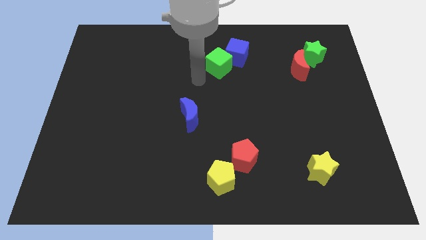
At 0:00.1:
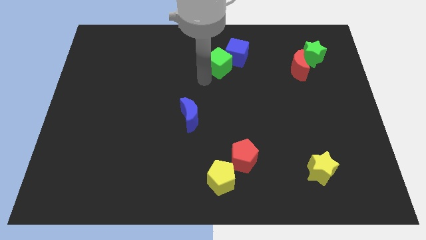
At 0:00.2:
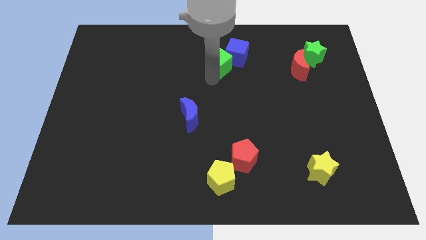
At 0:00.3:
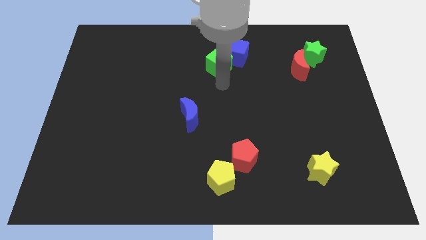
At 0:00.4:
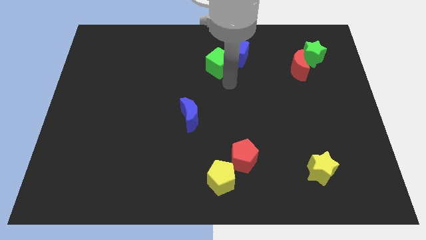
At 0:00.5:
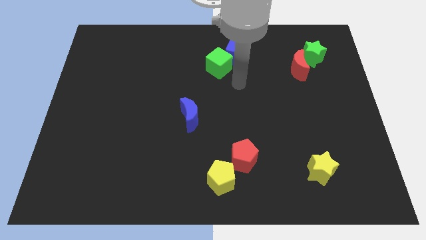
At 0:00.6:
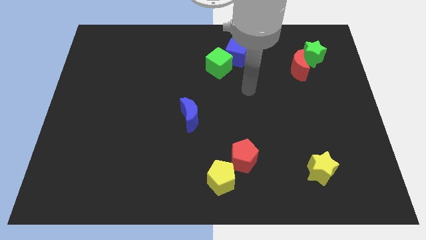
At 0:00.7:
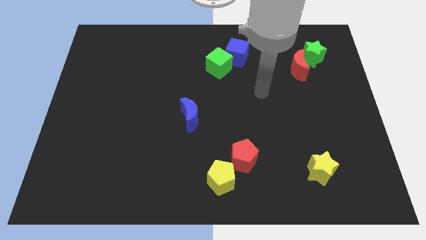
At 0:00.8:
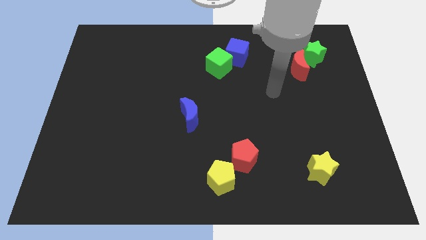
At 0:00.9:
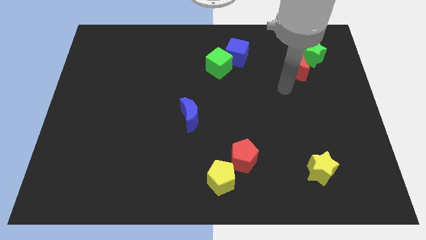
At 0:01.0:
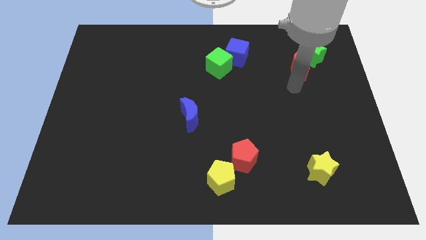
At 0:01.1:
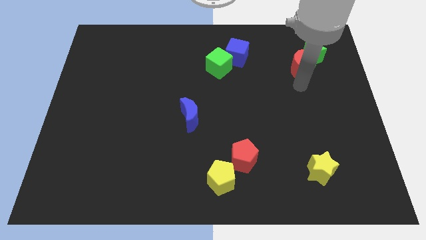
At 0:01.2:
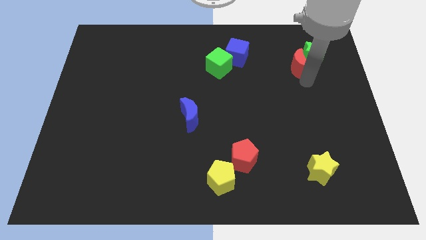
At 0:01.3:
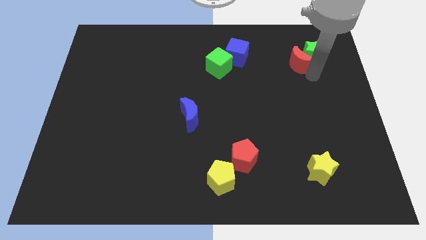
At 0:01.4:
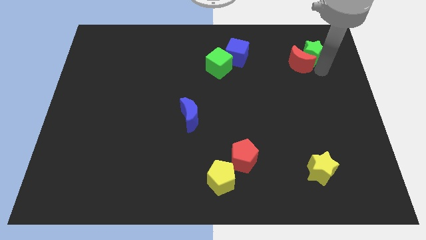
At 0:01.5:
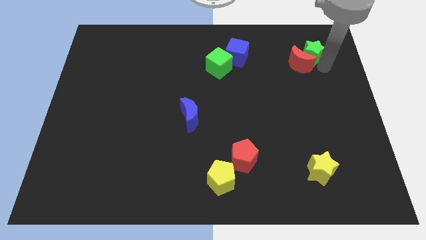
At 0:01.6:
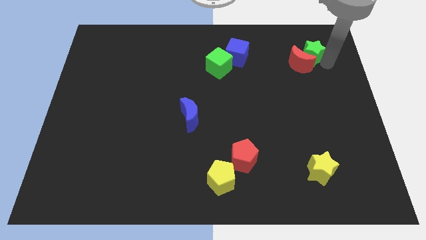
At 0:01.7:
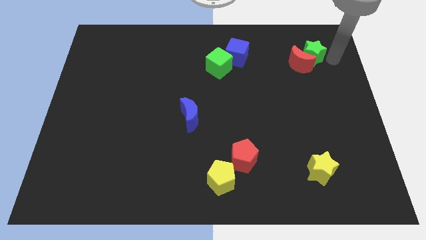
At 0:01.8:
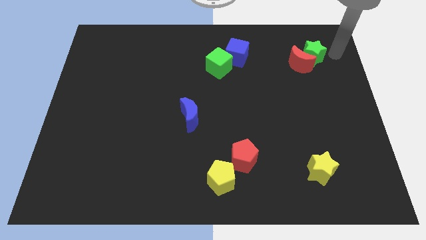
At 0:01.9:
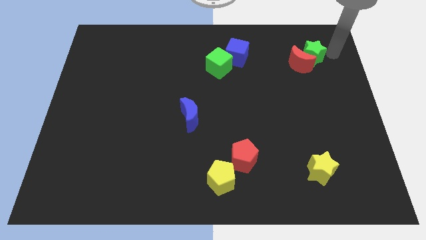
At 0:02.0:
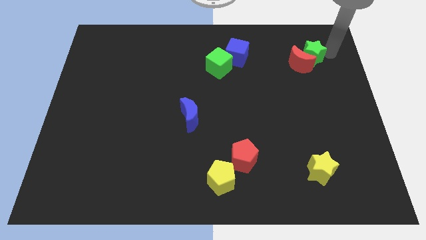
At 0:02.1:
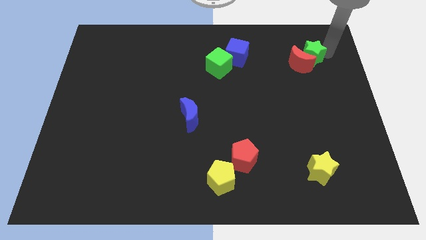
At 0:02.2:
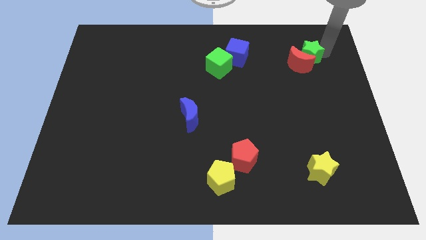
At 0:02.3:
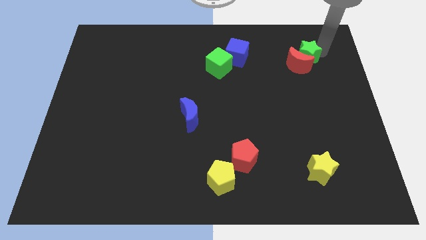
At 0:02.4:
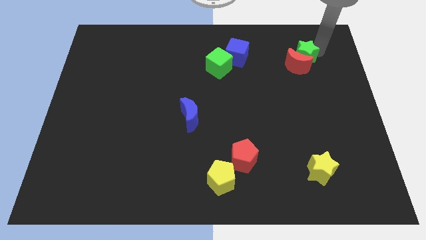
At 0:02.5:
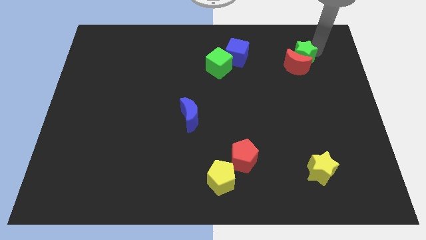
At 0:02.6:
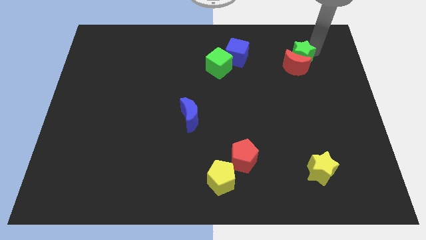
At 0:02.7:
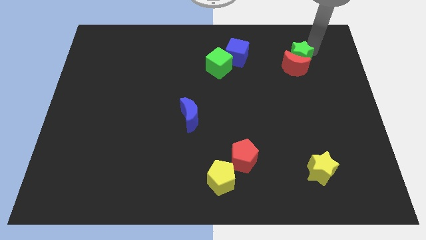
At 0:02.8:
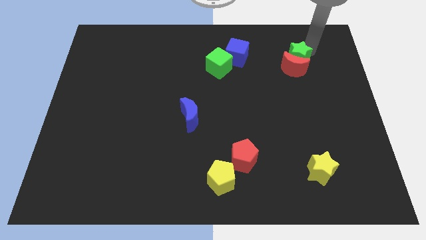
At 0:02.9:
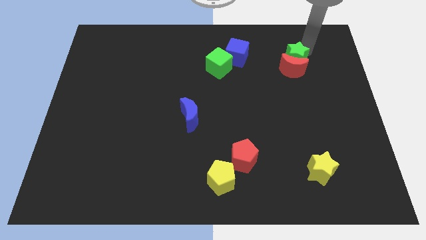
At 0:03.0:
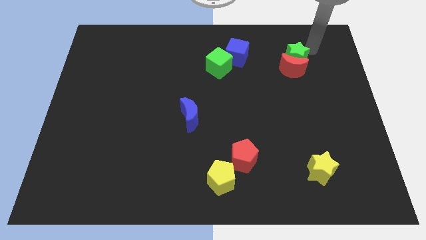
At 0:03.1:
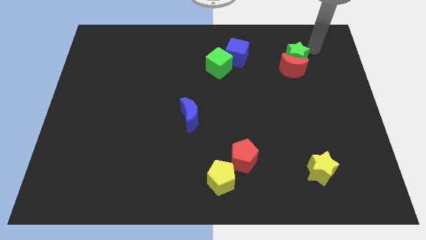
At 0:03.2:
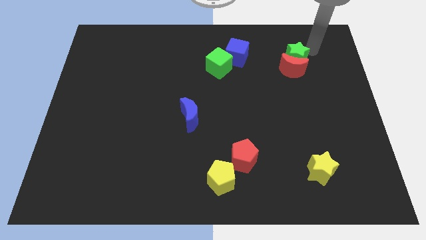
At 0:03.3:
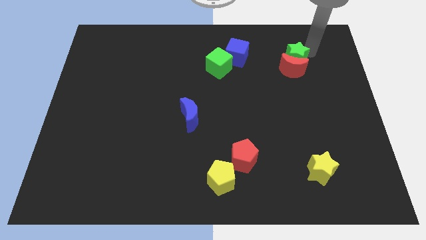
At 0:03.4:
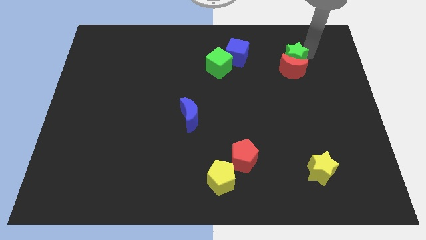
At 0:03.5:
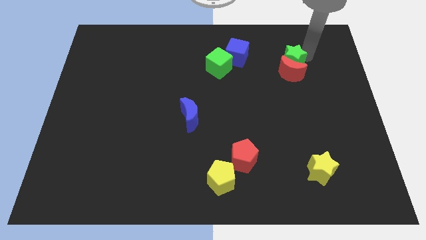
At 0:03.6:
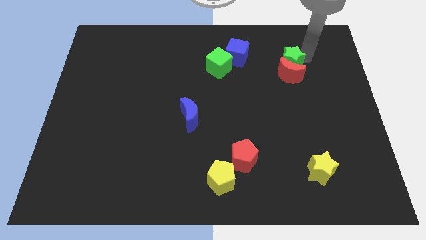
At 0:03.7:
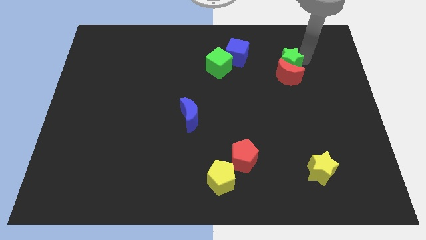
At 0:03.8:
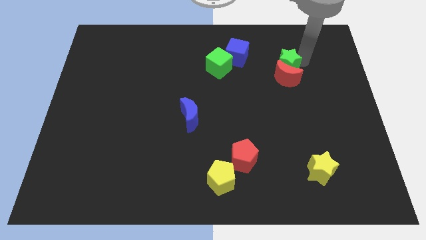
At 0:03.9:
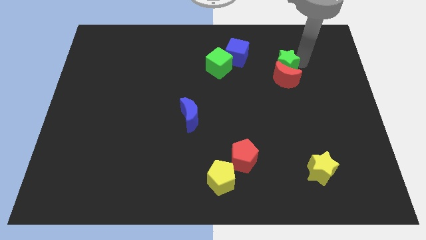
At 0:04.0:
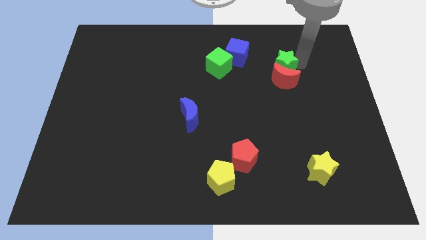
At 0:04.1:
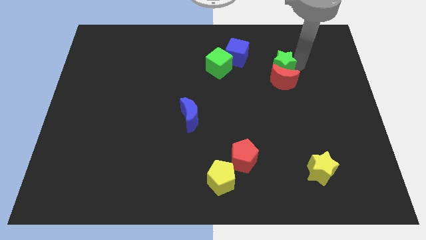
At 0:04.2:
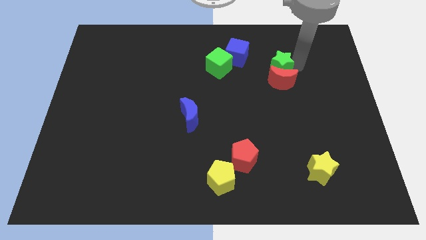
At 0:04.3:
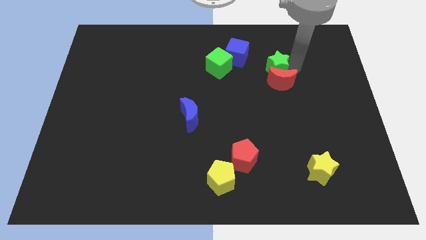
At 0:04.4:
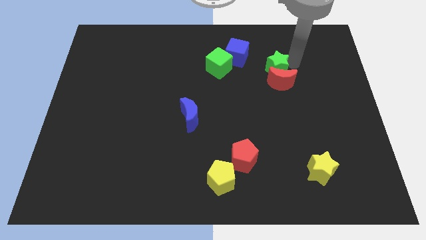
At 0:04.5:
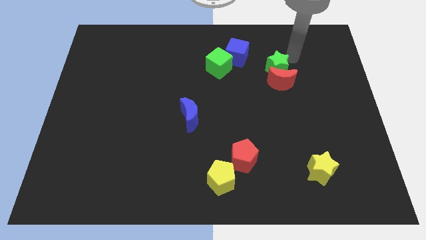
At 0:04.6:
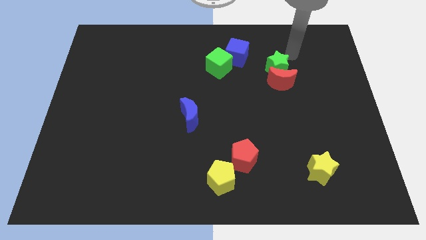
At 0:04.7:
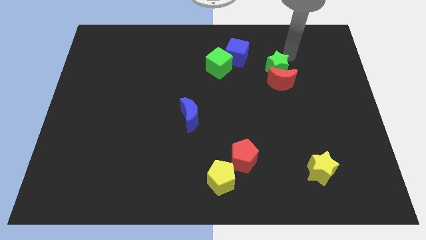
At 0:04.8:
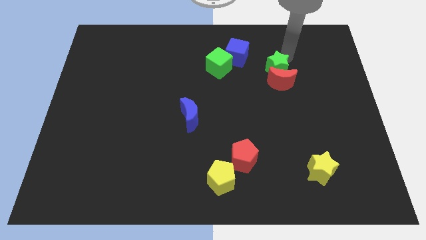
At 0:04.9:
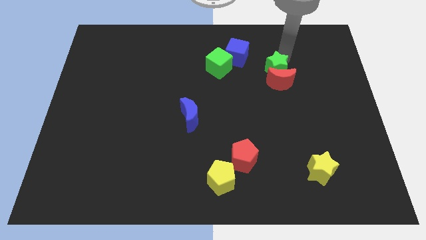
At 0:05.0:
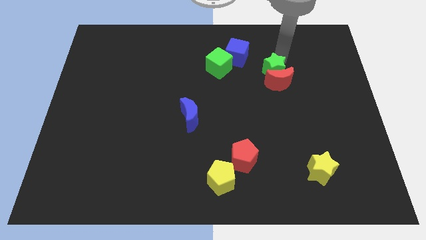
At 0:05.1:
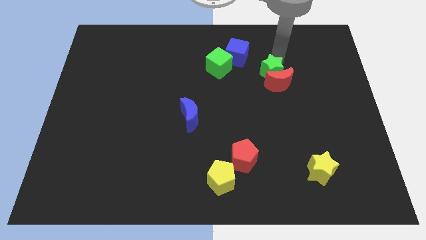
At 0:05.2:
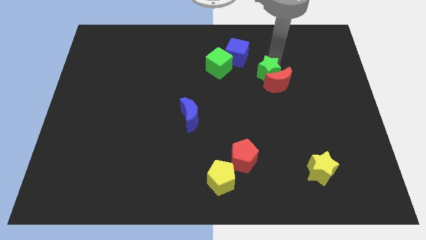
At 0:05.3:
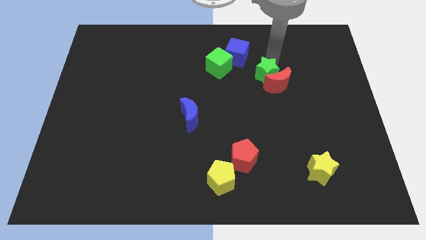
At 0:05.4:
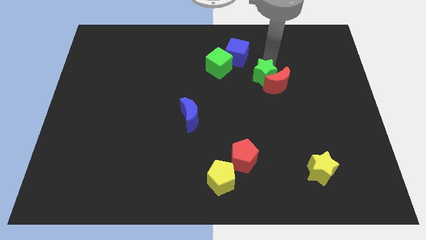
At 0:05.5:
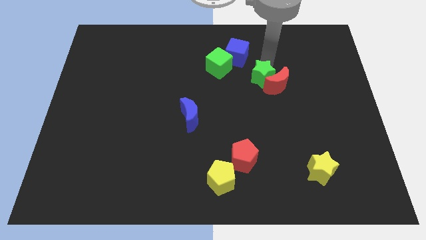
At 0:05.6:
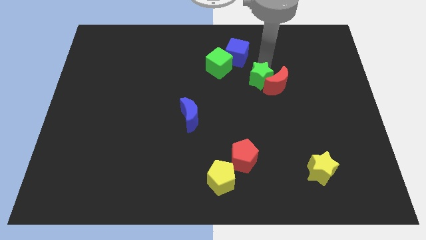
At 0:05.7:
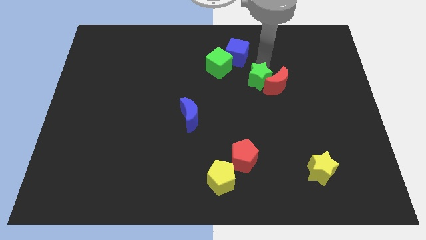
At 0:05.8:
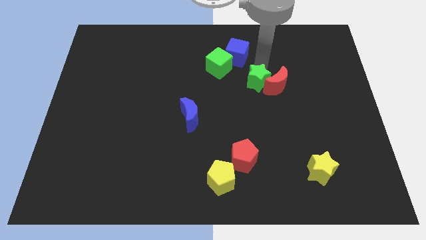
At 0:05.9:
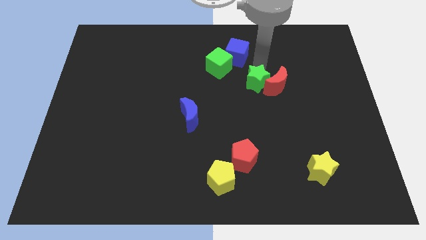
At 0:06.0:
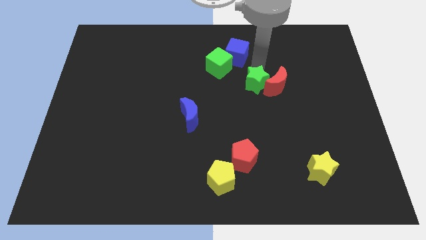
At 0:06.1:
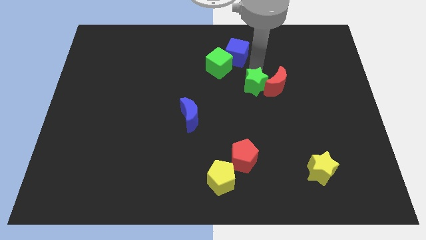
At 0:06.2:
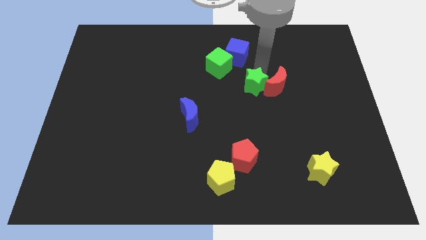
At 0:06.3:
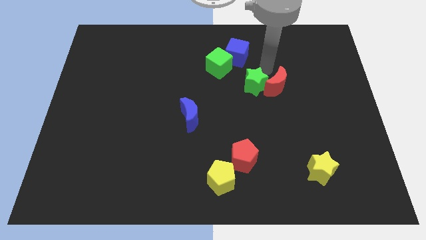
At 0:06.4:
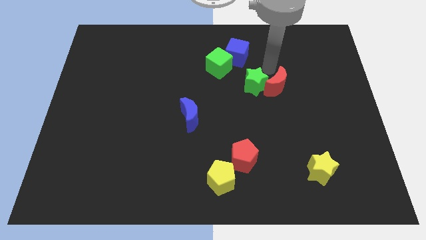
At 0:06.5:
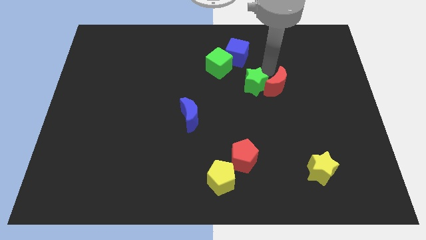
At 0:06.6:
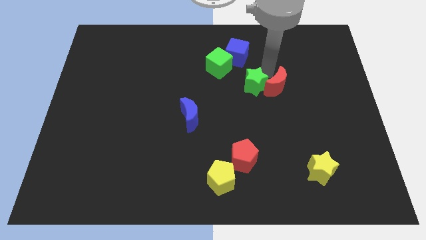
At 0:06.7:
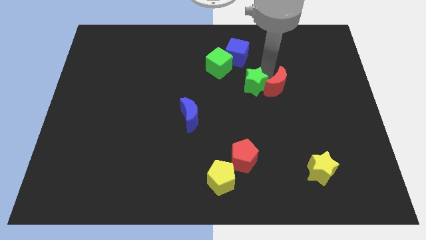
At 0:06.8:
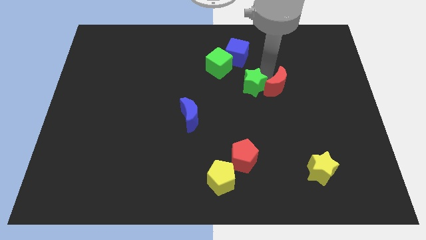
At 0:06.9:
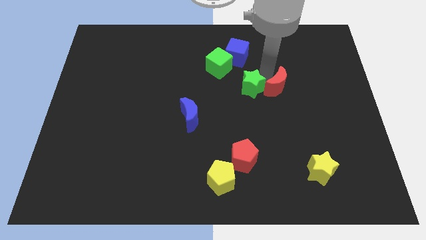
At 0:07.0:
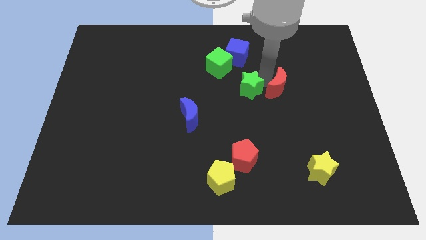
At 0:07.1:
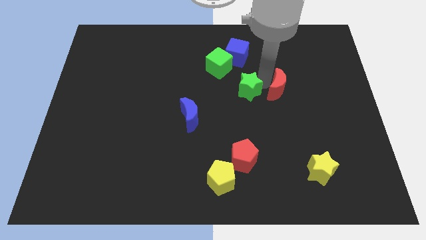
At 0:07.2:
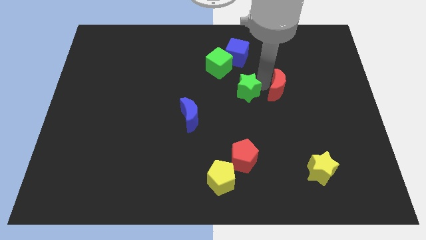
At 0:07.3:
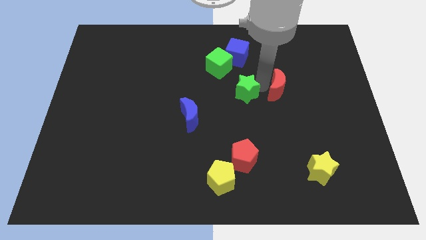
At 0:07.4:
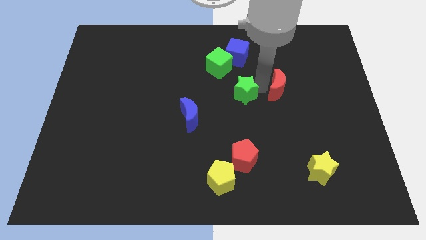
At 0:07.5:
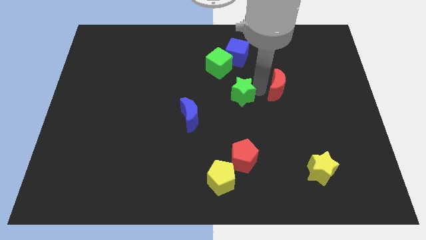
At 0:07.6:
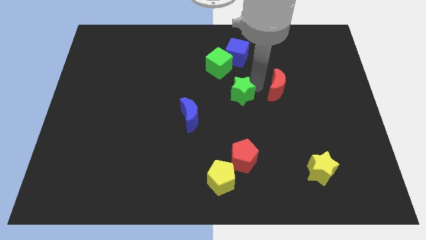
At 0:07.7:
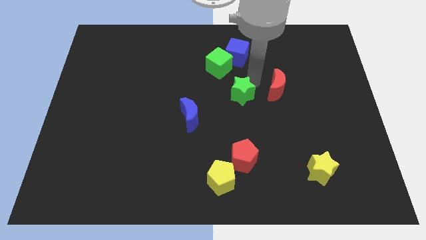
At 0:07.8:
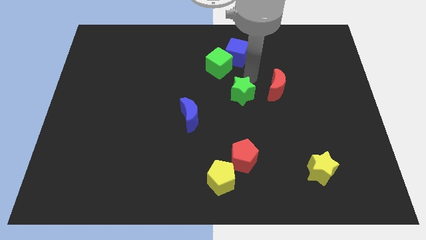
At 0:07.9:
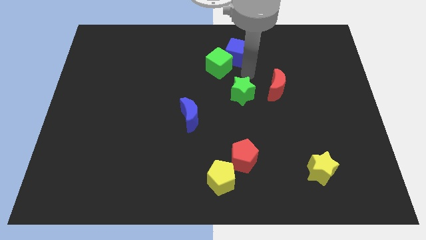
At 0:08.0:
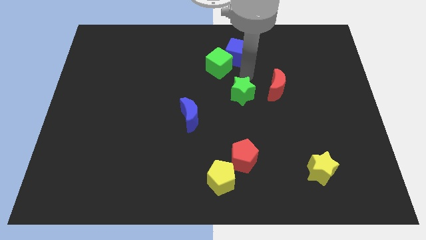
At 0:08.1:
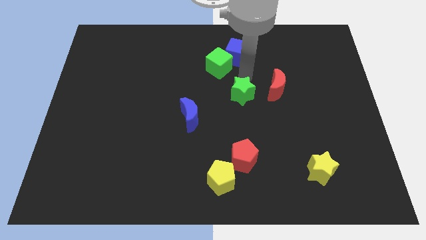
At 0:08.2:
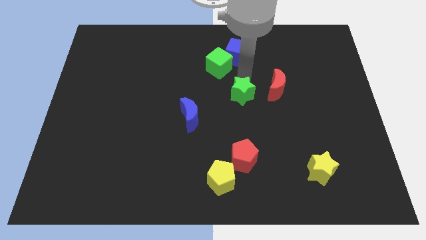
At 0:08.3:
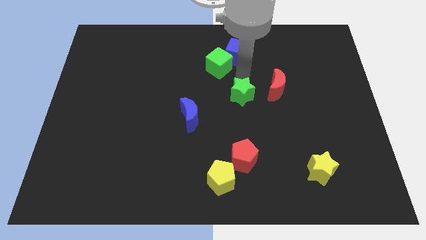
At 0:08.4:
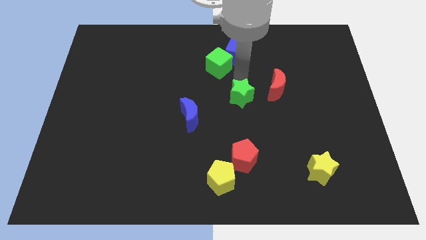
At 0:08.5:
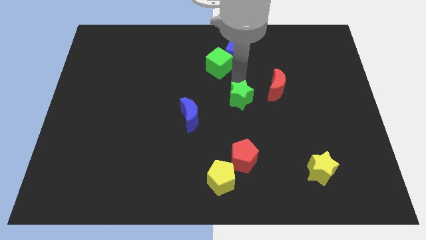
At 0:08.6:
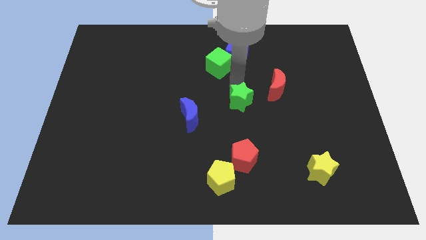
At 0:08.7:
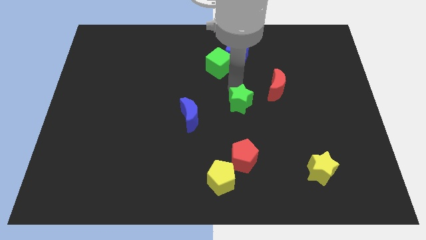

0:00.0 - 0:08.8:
put the green star right of the blue moon
